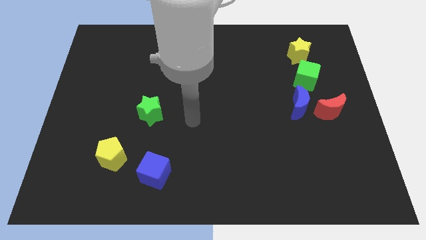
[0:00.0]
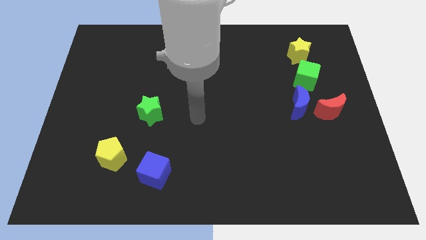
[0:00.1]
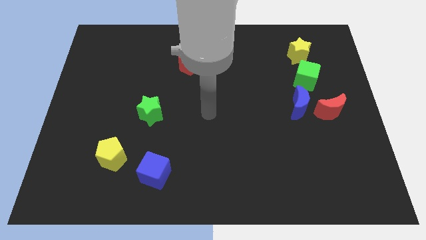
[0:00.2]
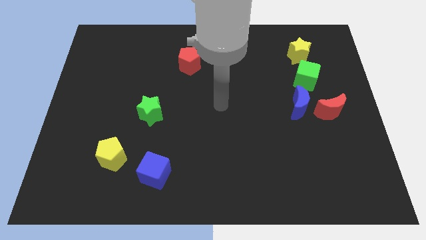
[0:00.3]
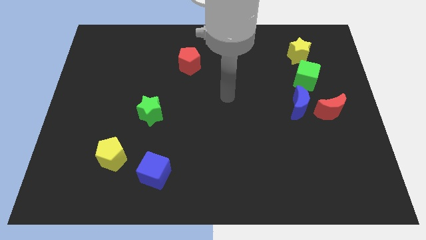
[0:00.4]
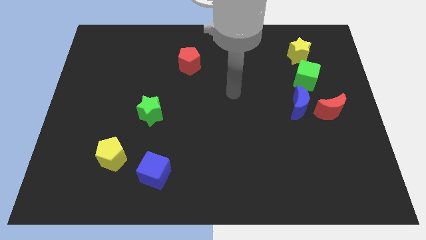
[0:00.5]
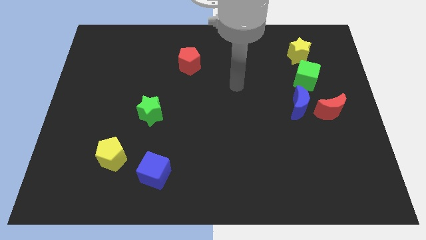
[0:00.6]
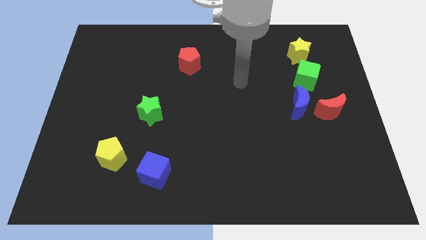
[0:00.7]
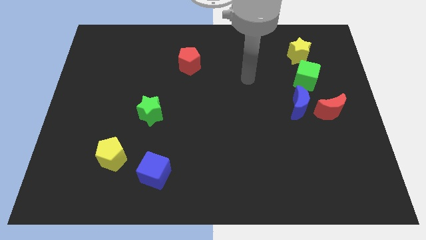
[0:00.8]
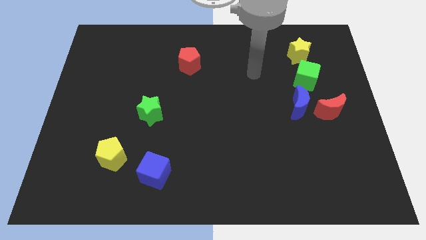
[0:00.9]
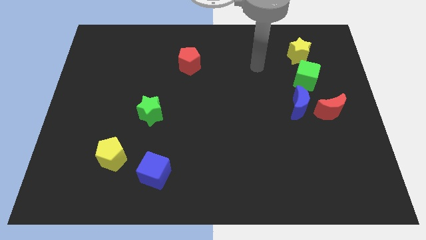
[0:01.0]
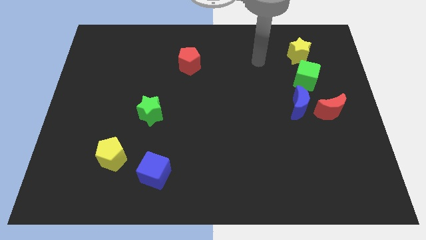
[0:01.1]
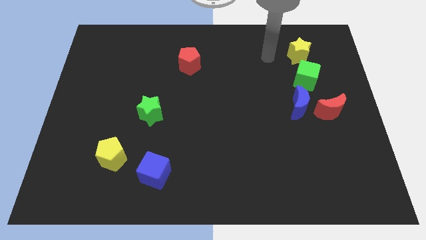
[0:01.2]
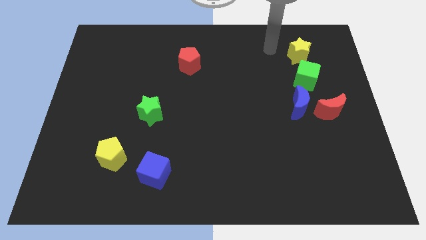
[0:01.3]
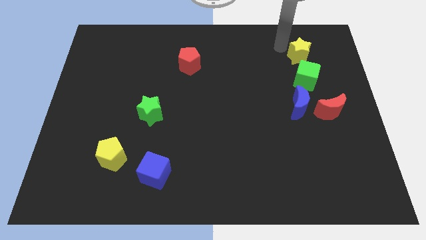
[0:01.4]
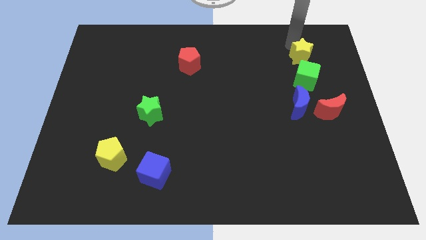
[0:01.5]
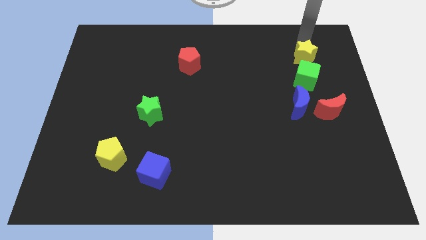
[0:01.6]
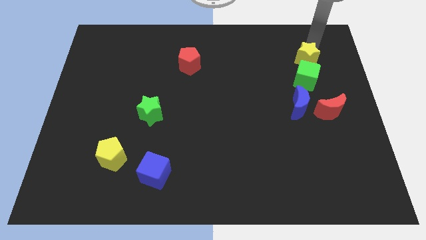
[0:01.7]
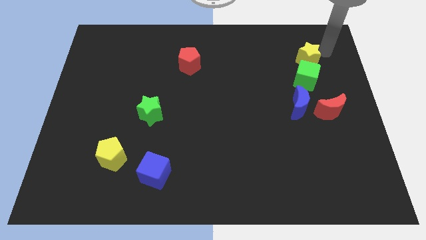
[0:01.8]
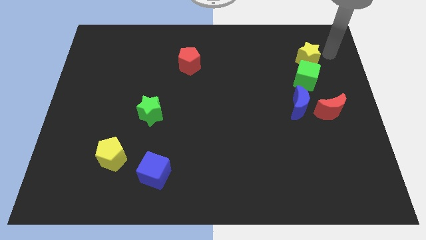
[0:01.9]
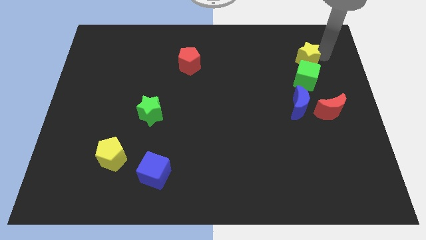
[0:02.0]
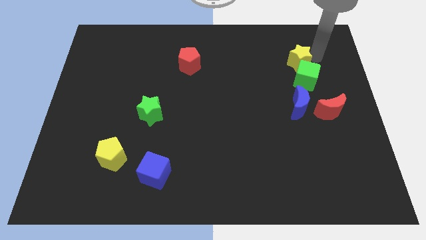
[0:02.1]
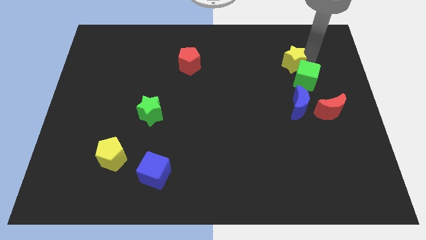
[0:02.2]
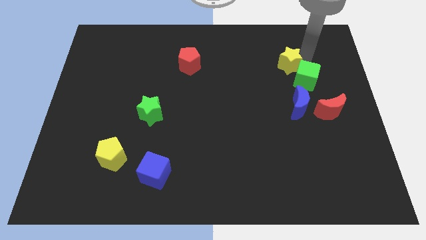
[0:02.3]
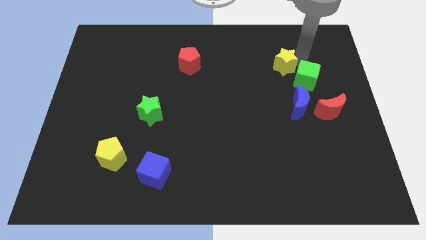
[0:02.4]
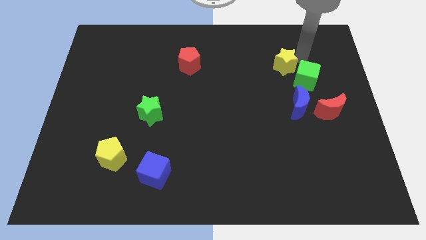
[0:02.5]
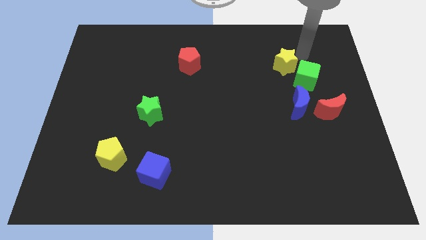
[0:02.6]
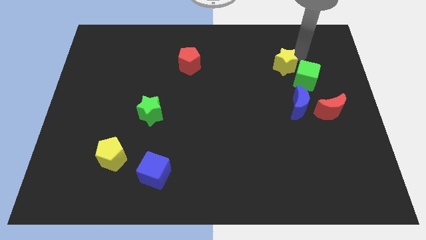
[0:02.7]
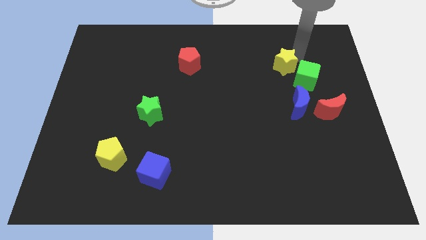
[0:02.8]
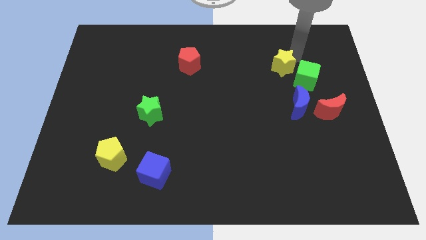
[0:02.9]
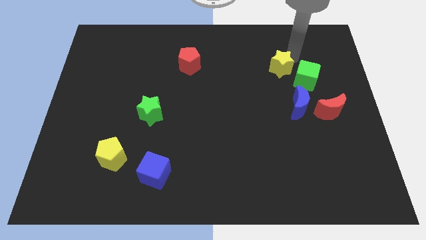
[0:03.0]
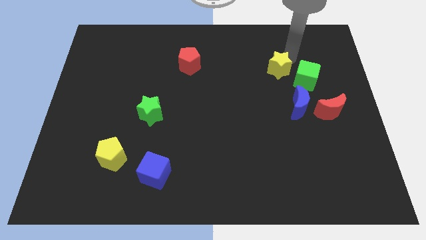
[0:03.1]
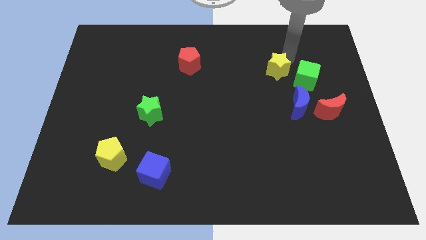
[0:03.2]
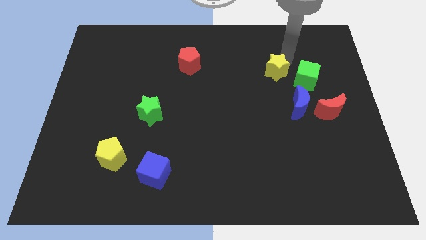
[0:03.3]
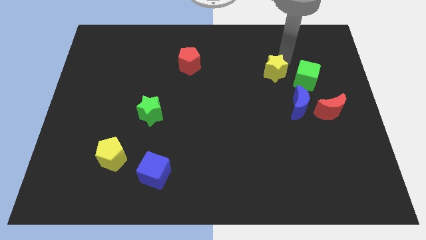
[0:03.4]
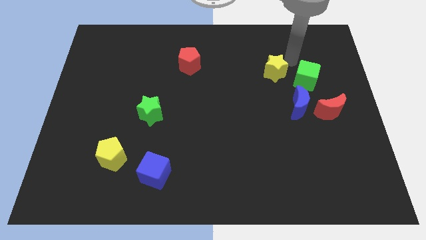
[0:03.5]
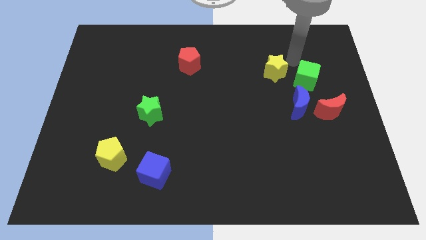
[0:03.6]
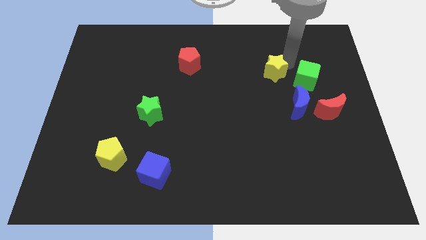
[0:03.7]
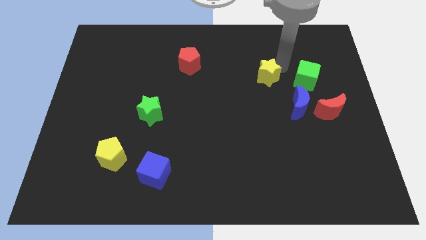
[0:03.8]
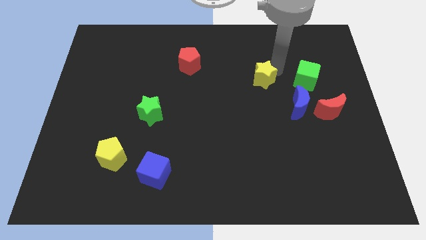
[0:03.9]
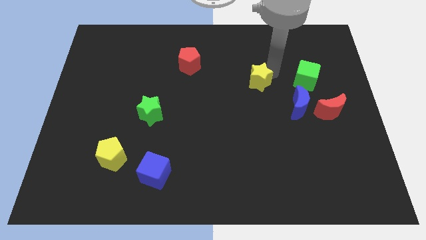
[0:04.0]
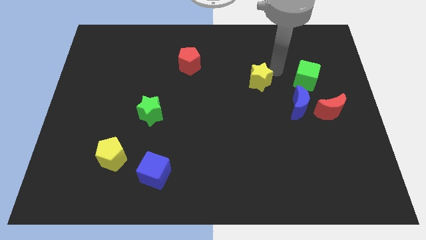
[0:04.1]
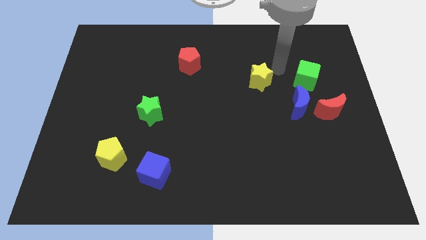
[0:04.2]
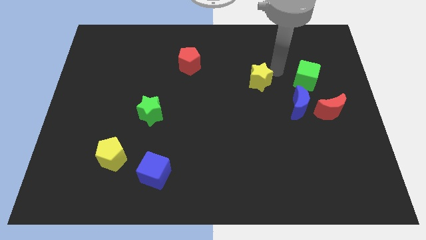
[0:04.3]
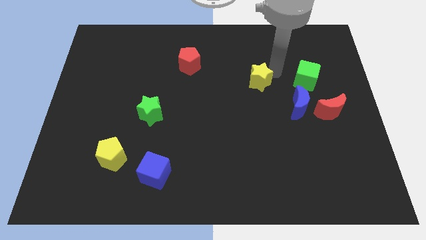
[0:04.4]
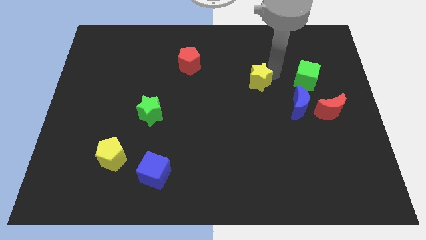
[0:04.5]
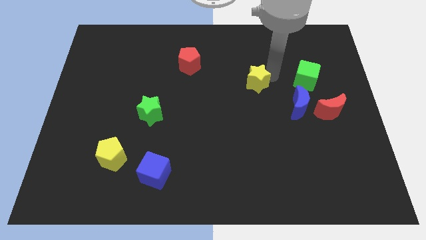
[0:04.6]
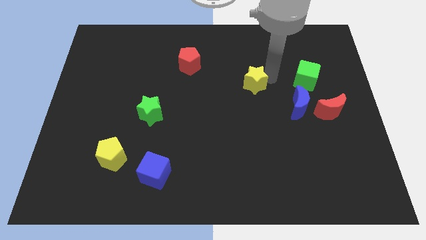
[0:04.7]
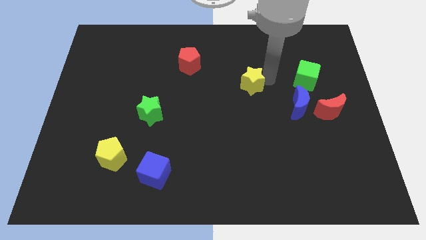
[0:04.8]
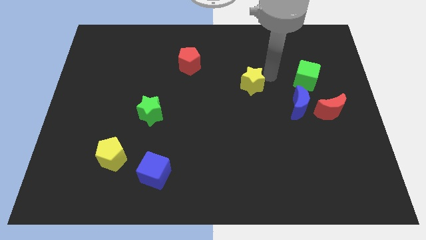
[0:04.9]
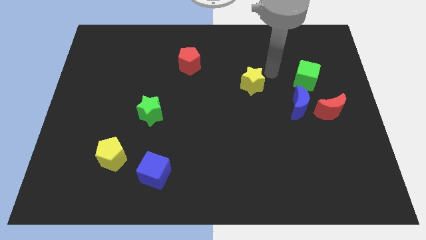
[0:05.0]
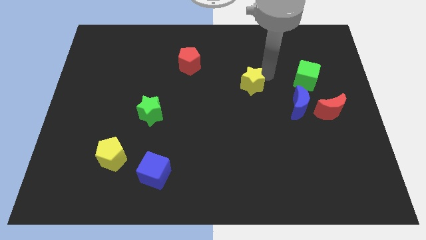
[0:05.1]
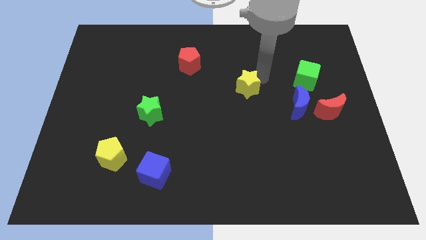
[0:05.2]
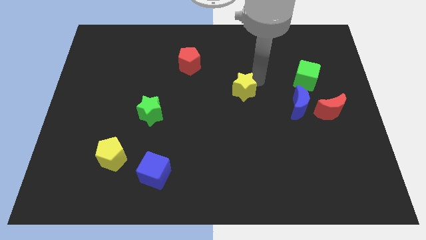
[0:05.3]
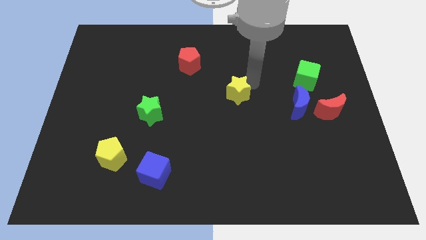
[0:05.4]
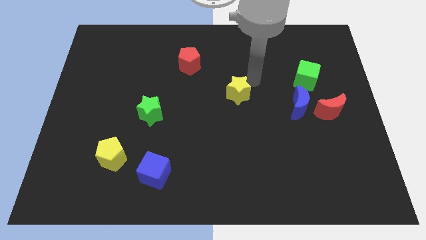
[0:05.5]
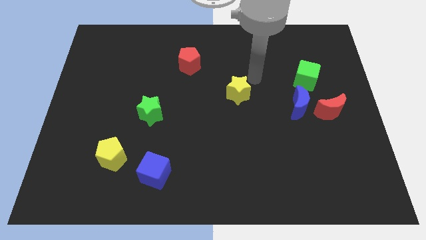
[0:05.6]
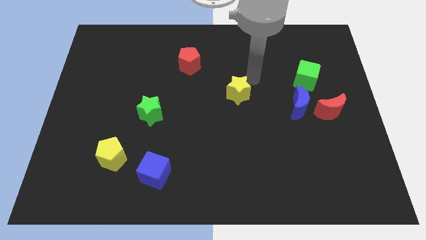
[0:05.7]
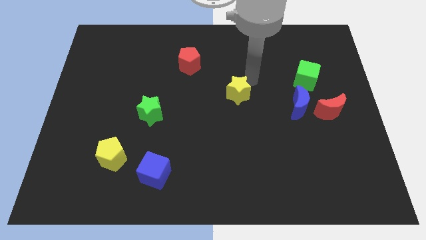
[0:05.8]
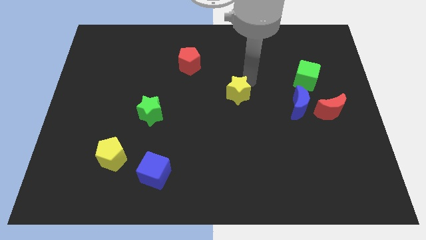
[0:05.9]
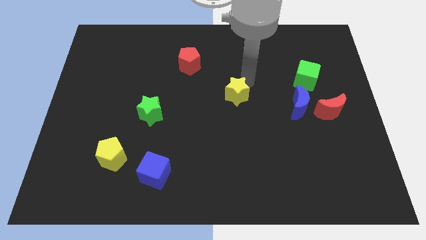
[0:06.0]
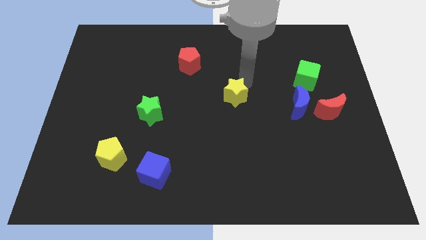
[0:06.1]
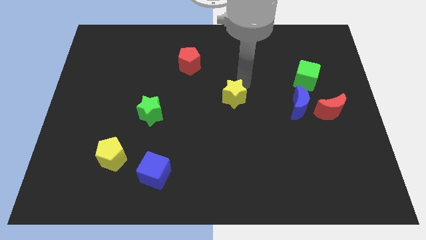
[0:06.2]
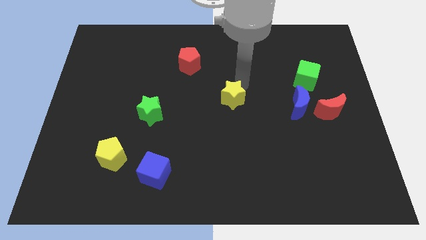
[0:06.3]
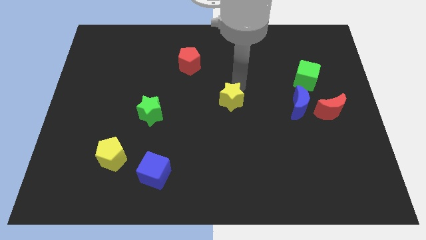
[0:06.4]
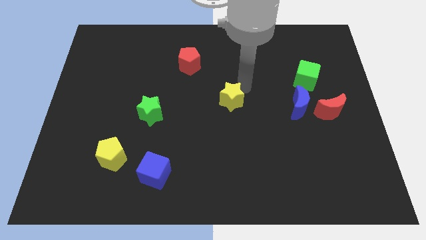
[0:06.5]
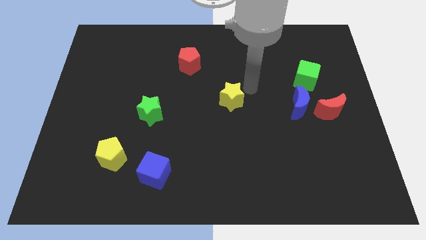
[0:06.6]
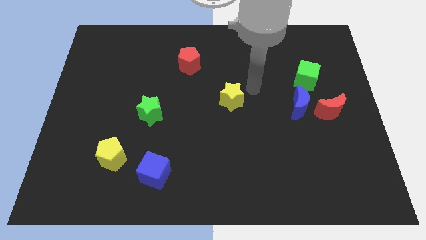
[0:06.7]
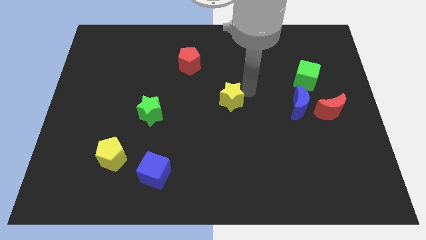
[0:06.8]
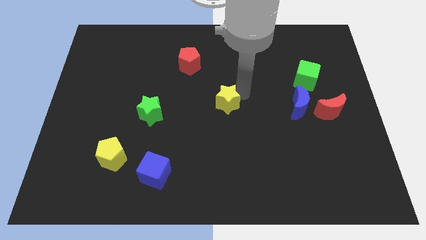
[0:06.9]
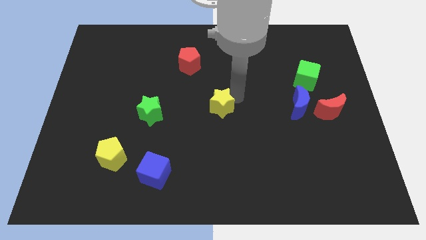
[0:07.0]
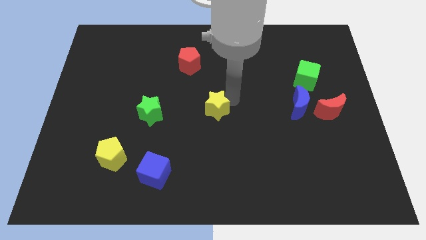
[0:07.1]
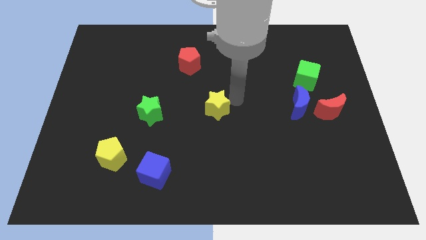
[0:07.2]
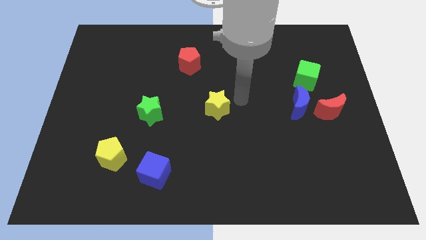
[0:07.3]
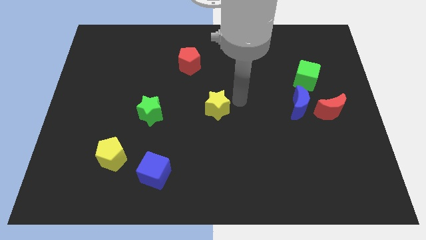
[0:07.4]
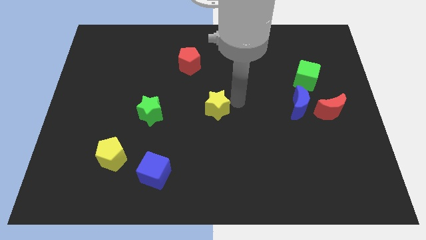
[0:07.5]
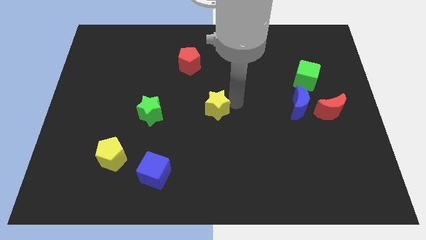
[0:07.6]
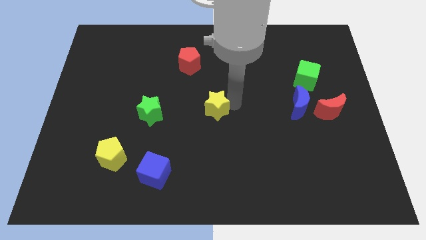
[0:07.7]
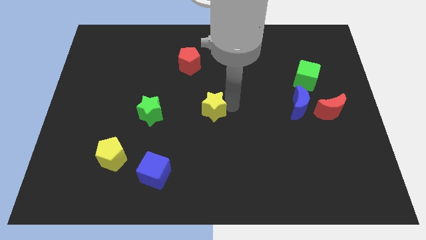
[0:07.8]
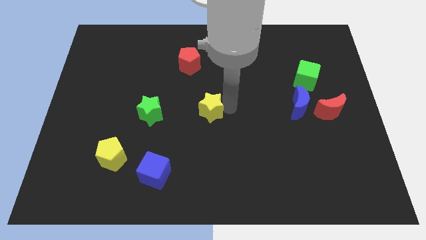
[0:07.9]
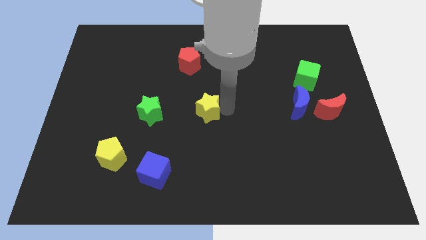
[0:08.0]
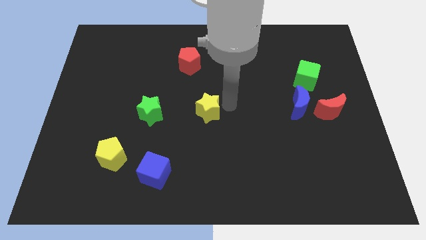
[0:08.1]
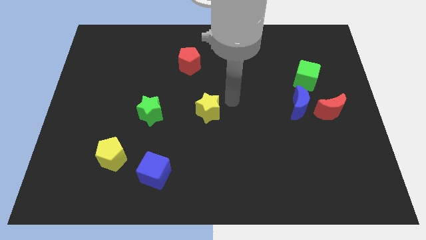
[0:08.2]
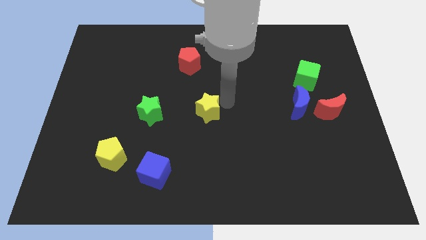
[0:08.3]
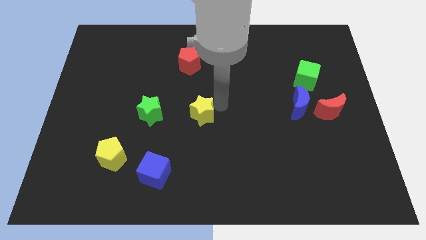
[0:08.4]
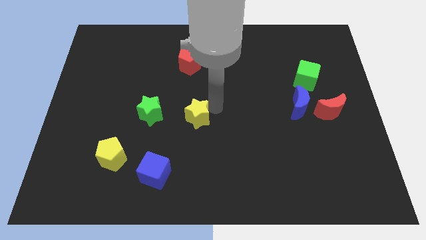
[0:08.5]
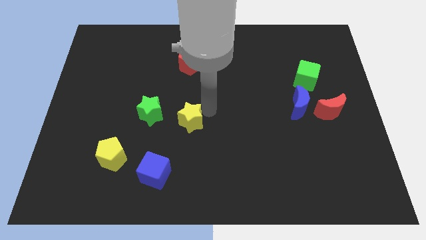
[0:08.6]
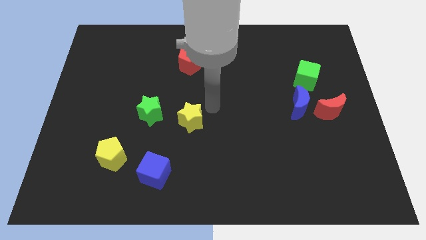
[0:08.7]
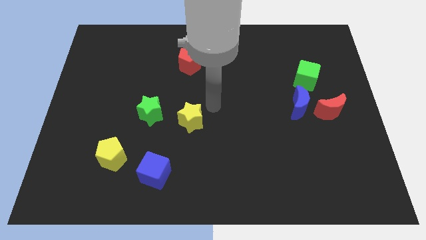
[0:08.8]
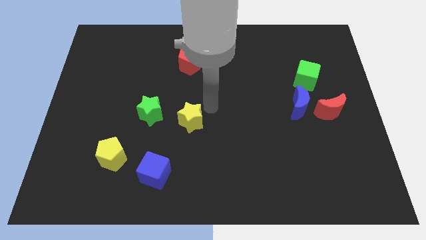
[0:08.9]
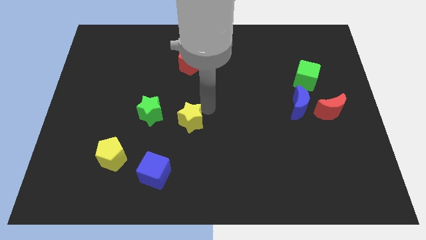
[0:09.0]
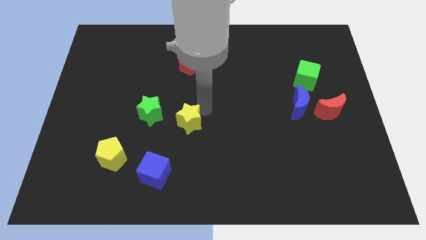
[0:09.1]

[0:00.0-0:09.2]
push the yellow star diagonally down and to the right of the green star
